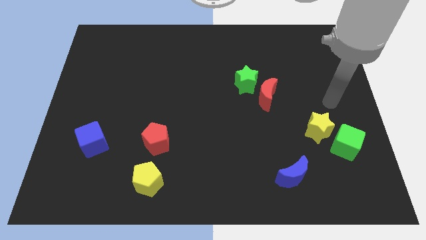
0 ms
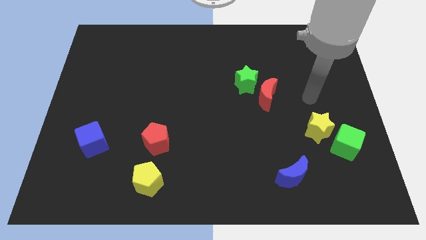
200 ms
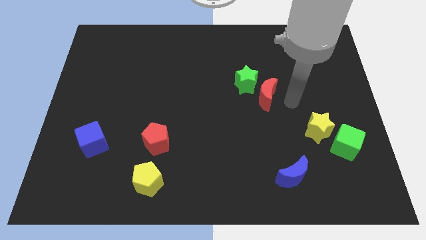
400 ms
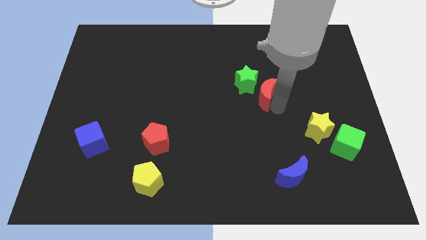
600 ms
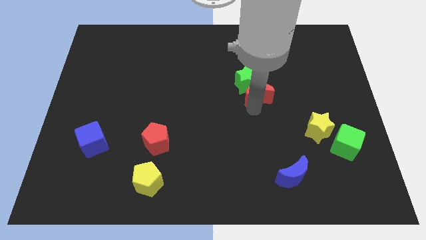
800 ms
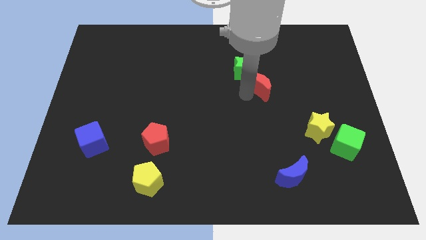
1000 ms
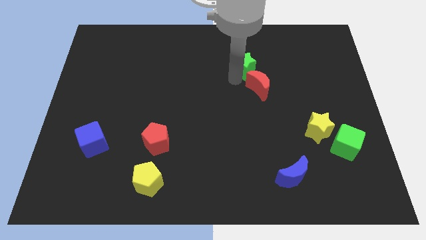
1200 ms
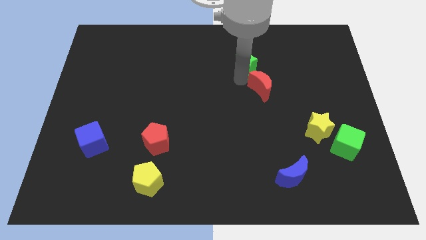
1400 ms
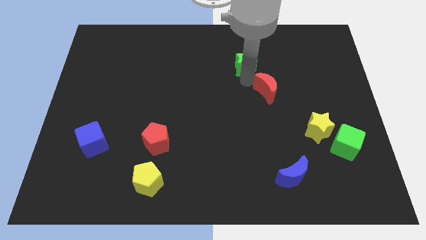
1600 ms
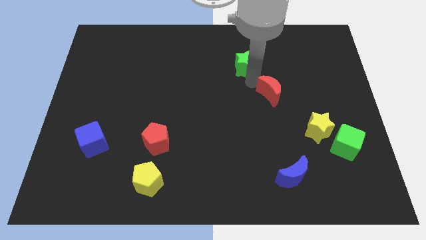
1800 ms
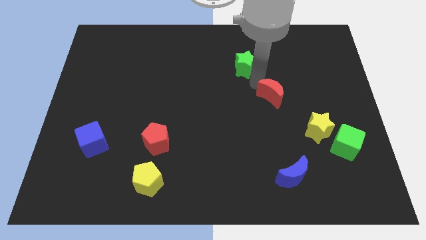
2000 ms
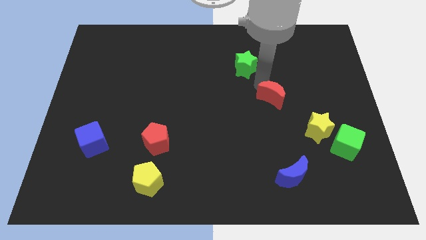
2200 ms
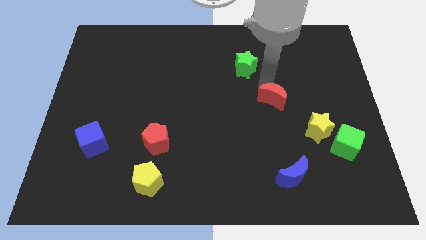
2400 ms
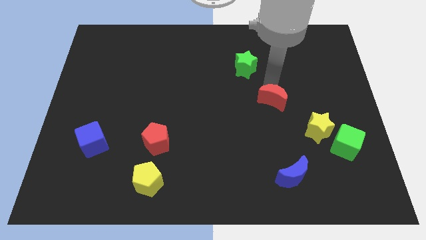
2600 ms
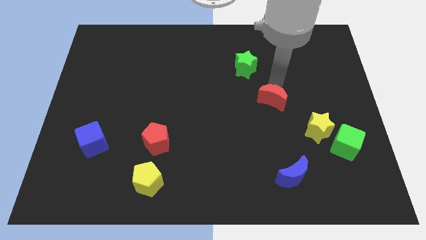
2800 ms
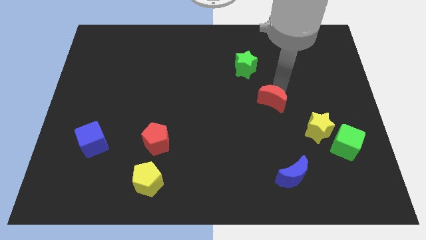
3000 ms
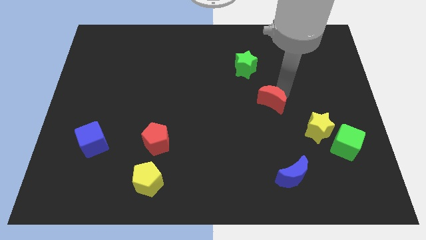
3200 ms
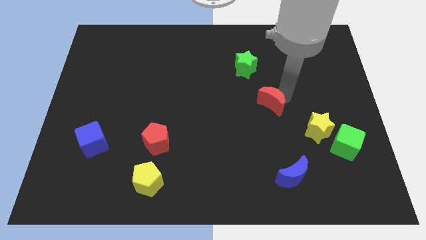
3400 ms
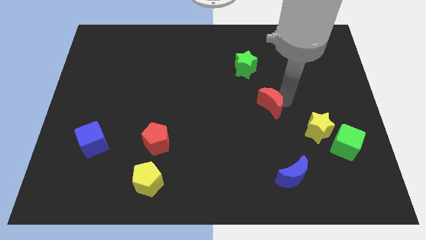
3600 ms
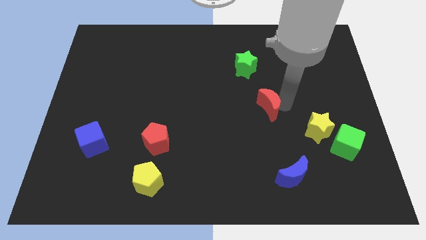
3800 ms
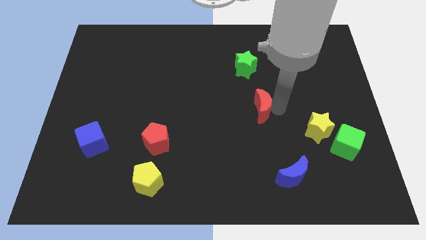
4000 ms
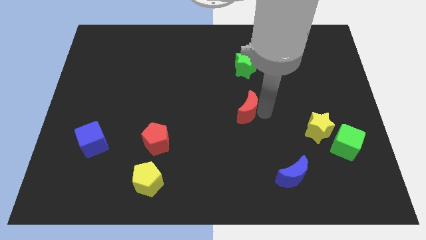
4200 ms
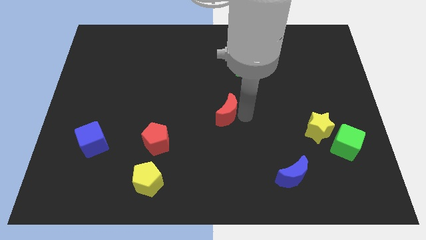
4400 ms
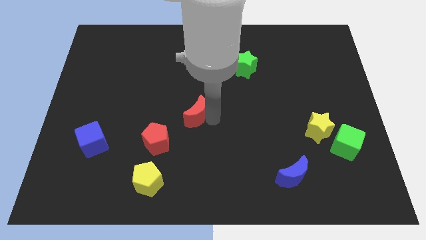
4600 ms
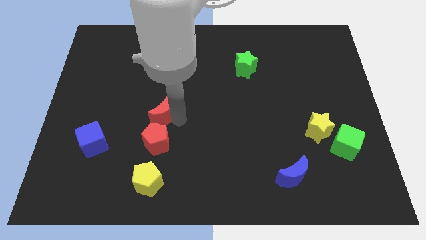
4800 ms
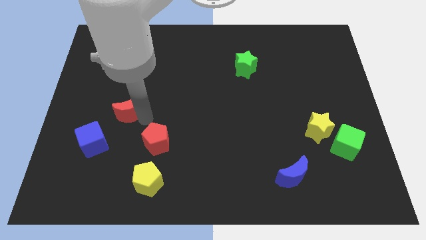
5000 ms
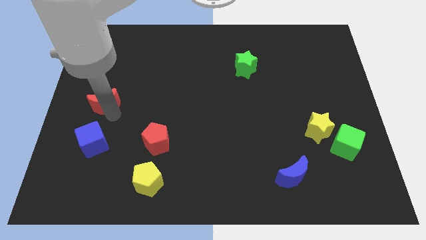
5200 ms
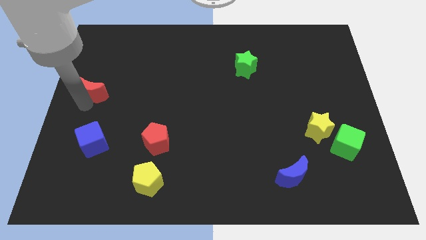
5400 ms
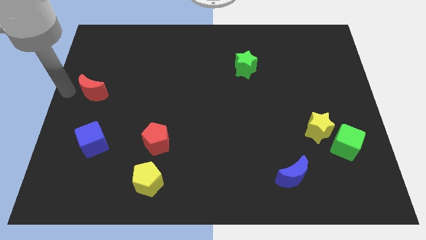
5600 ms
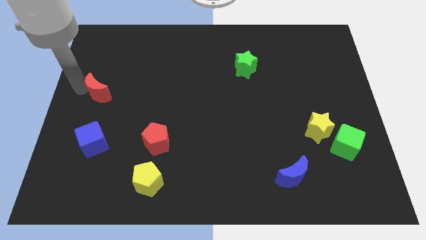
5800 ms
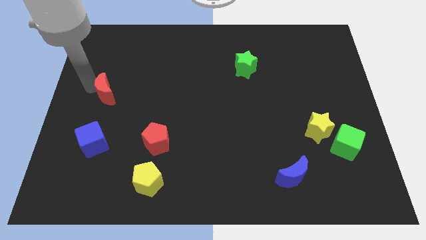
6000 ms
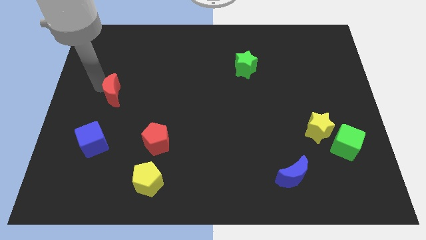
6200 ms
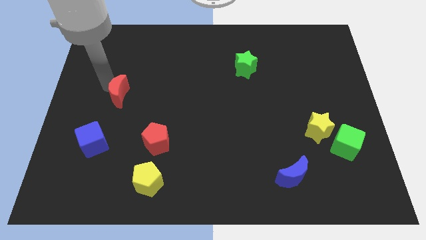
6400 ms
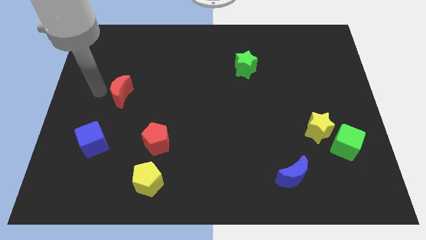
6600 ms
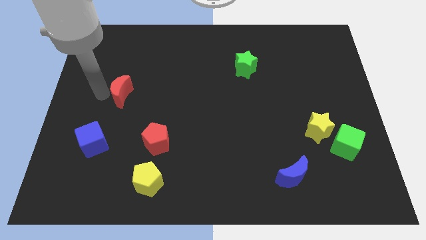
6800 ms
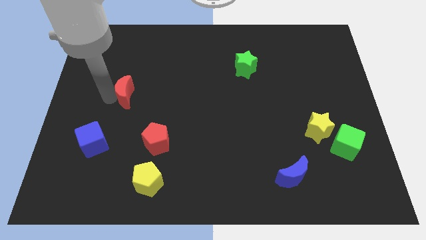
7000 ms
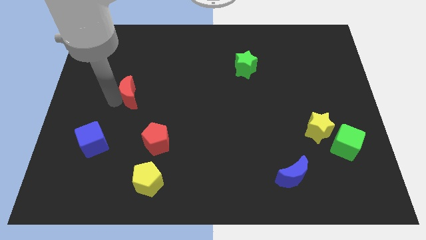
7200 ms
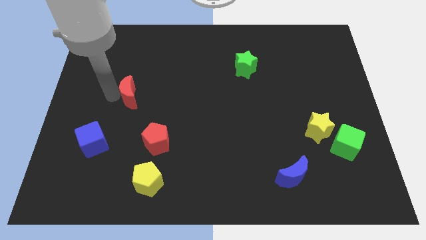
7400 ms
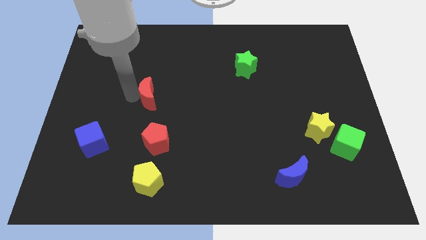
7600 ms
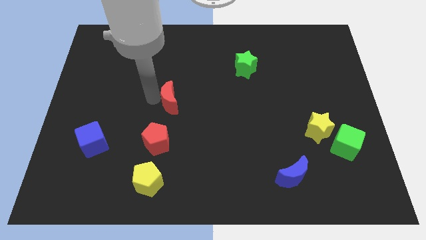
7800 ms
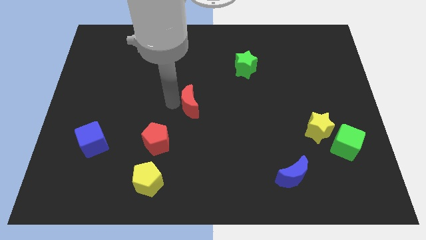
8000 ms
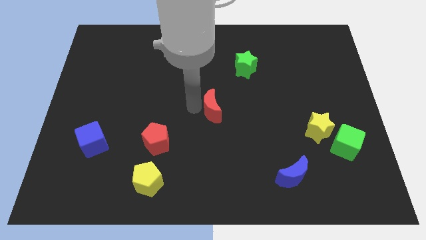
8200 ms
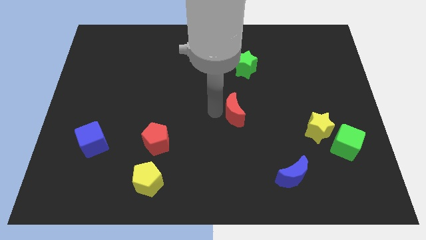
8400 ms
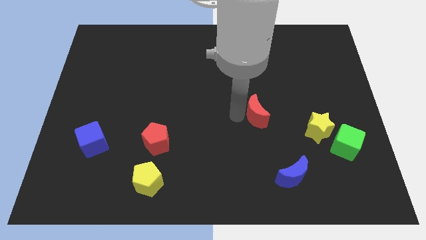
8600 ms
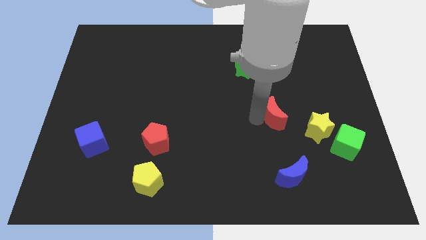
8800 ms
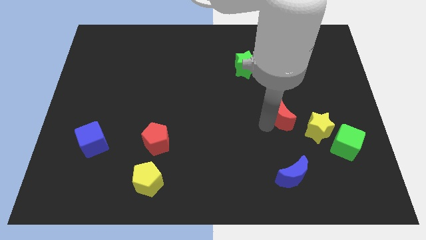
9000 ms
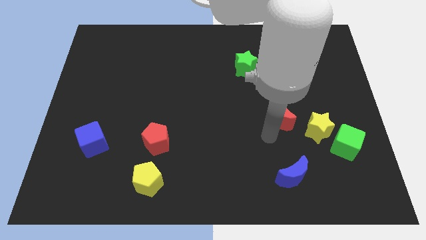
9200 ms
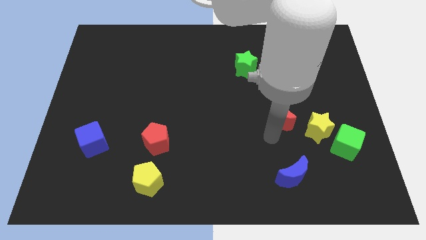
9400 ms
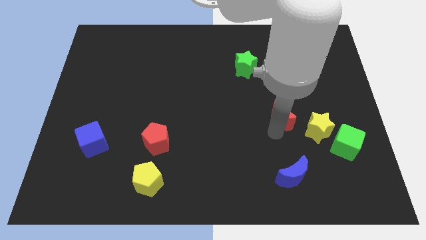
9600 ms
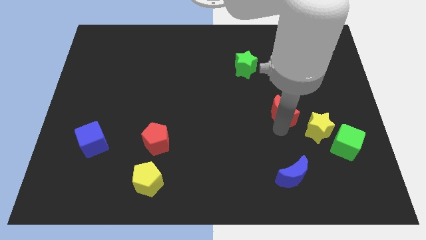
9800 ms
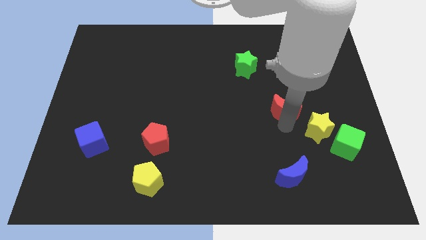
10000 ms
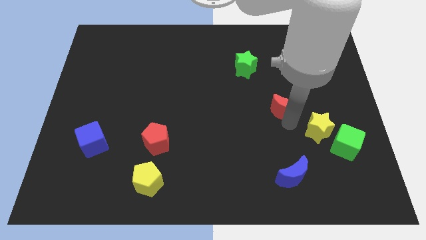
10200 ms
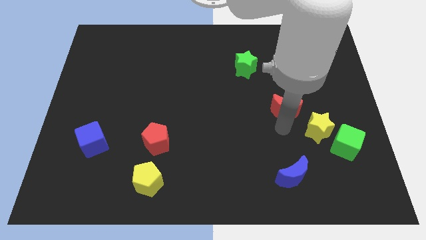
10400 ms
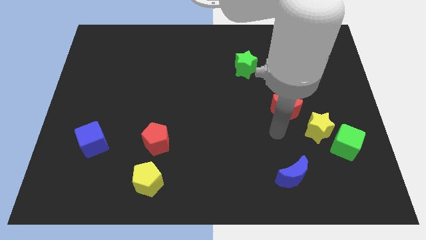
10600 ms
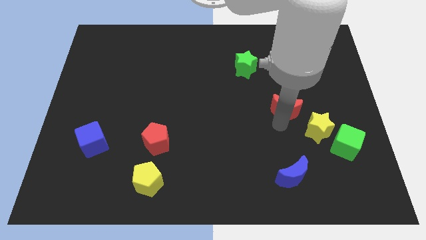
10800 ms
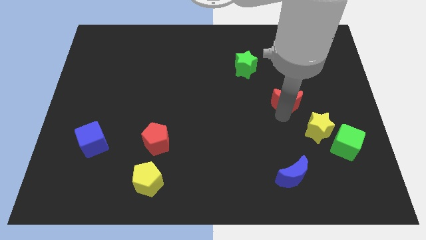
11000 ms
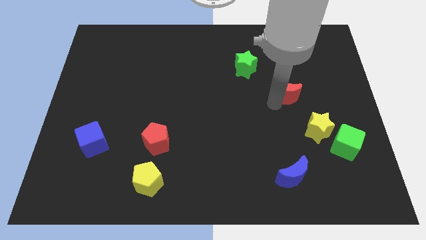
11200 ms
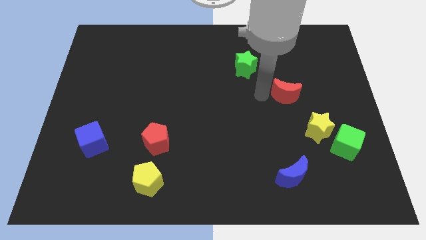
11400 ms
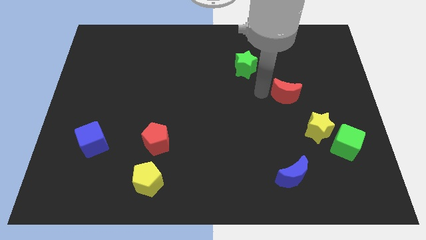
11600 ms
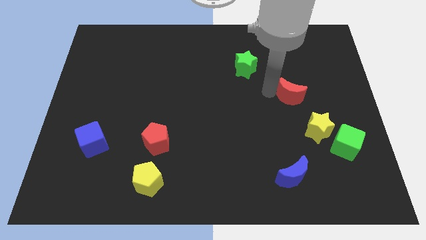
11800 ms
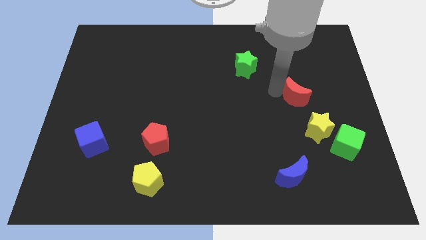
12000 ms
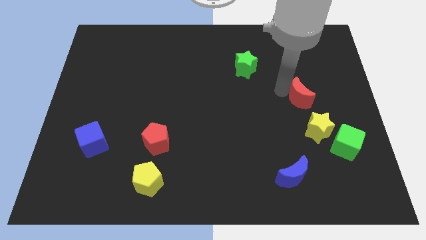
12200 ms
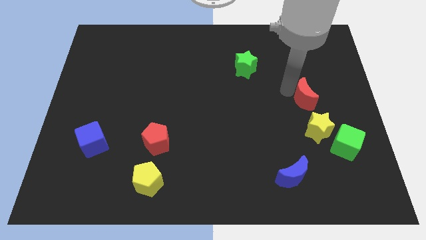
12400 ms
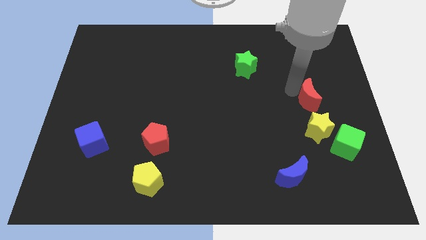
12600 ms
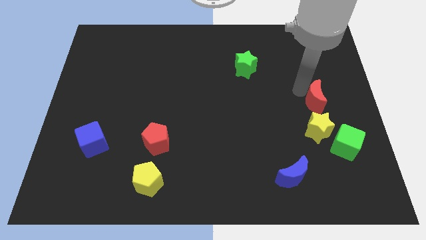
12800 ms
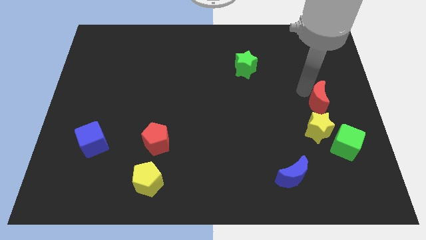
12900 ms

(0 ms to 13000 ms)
slide the red moon to the right side

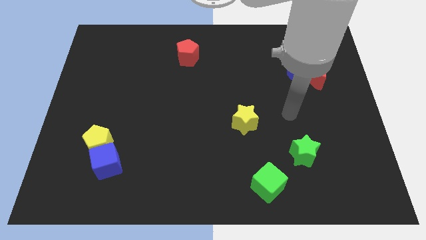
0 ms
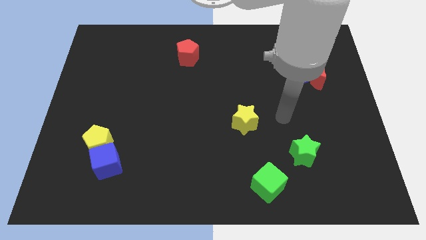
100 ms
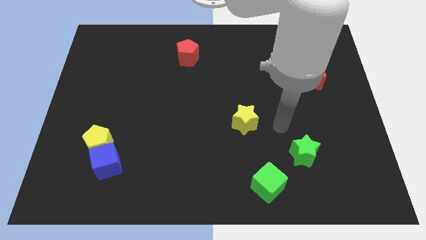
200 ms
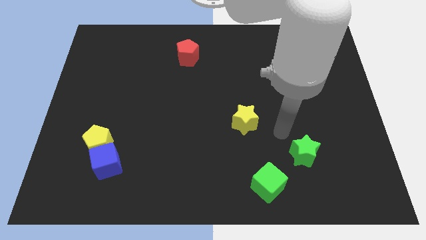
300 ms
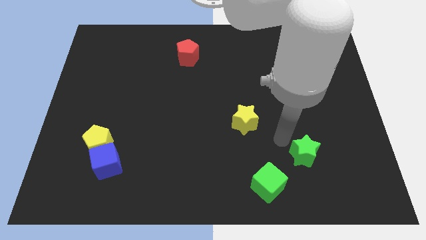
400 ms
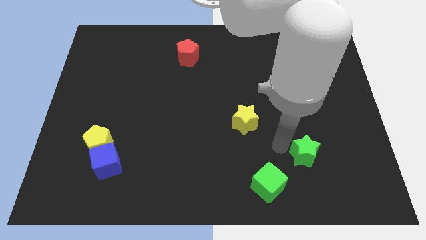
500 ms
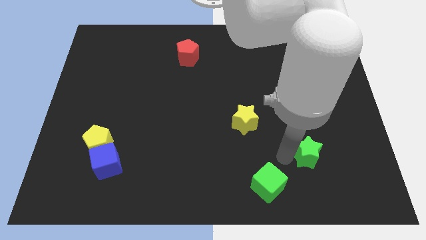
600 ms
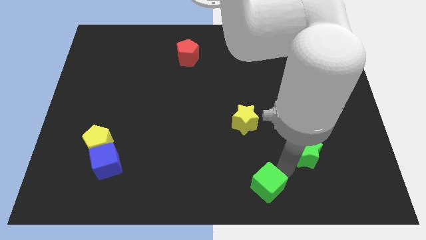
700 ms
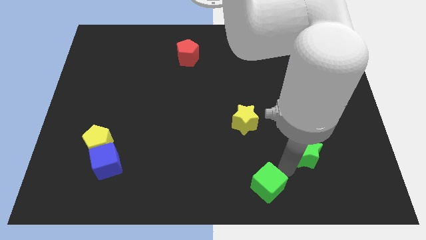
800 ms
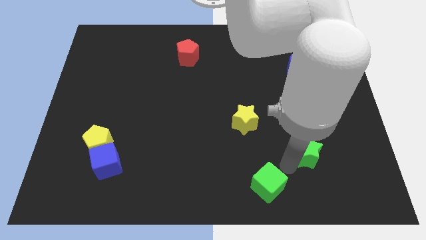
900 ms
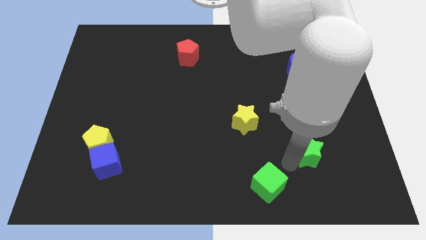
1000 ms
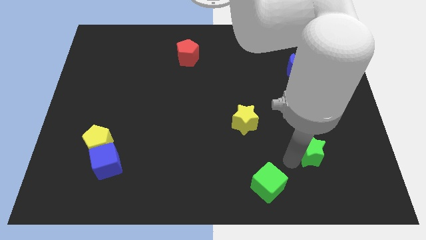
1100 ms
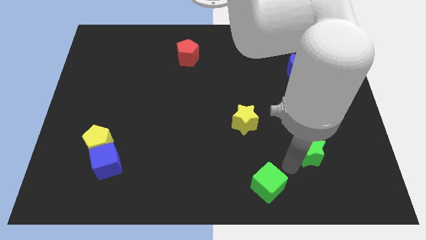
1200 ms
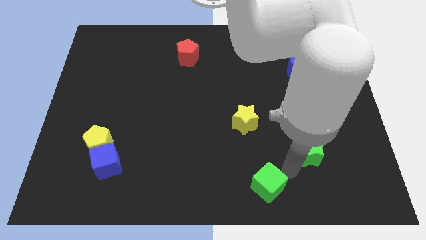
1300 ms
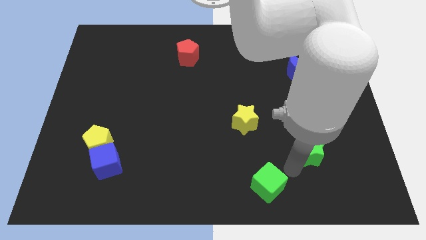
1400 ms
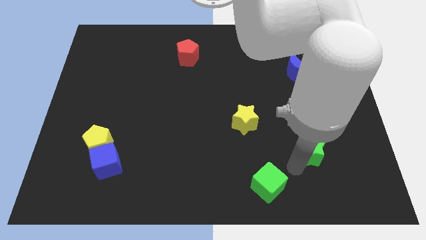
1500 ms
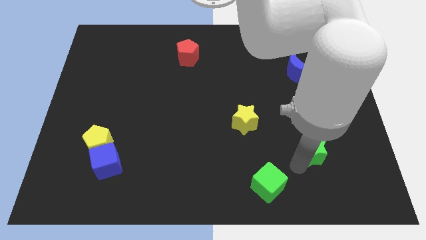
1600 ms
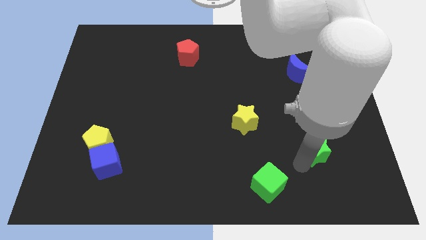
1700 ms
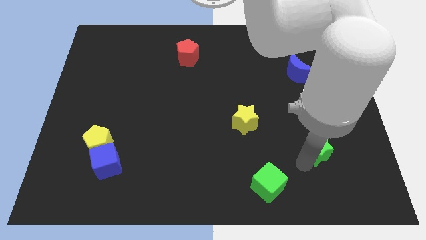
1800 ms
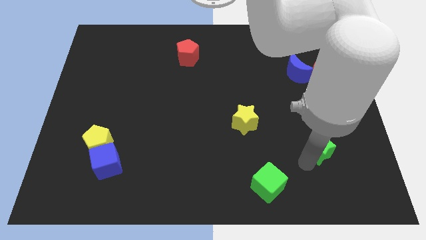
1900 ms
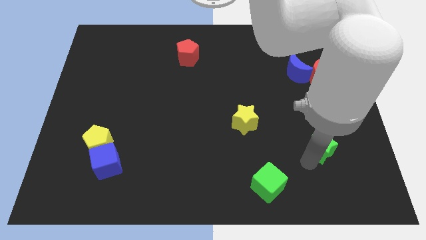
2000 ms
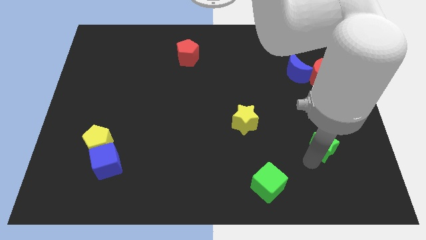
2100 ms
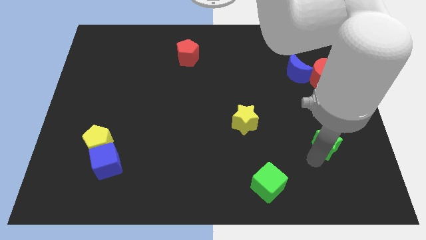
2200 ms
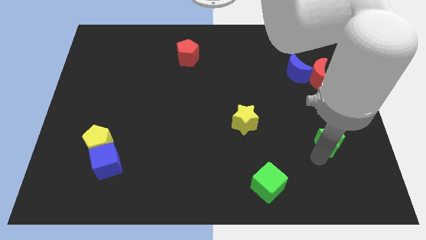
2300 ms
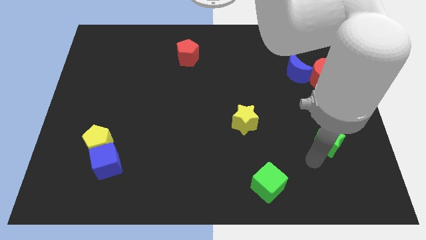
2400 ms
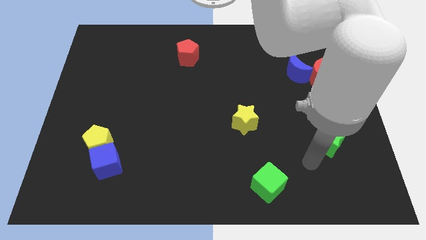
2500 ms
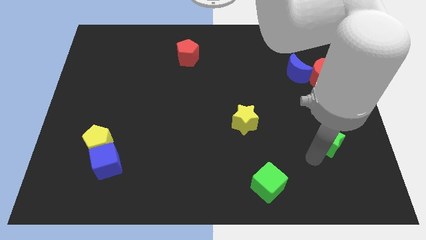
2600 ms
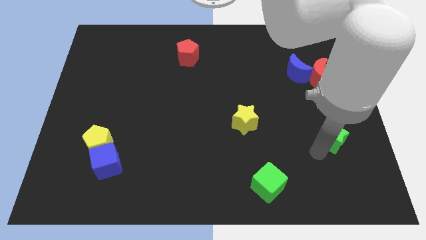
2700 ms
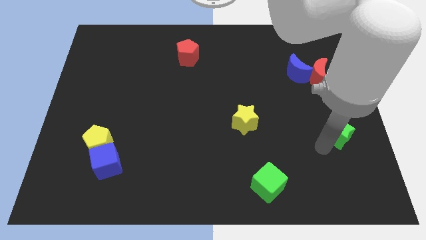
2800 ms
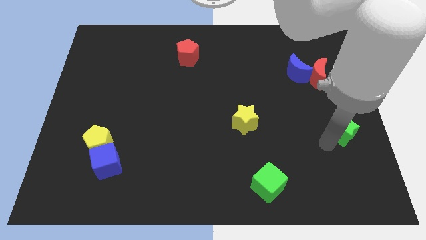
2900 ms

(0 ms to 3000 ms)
push the green star to the center right
